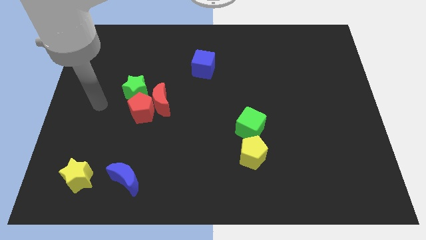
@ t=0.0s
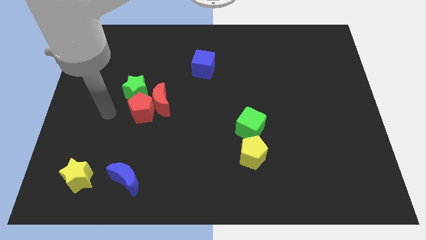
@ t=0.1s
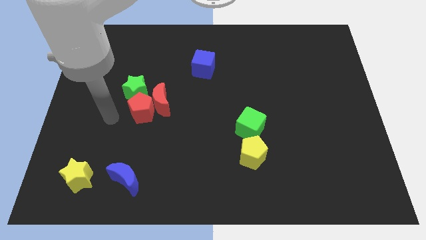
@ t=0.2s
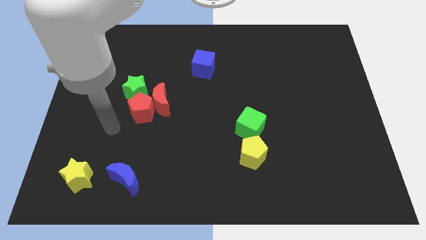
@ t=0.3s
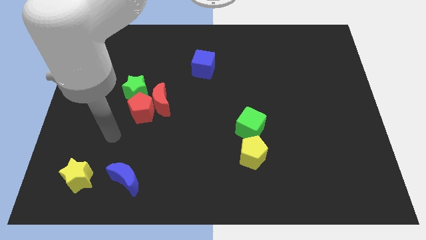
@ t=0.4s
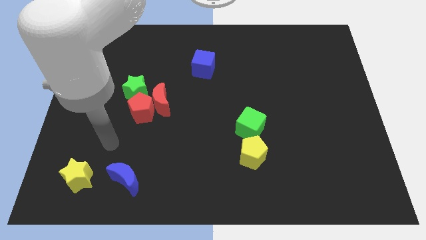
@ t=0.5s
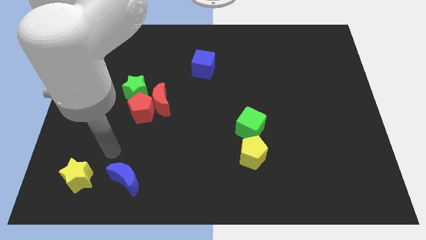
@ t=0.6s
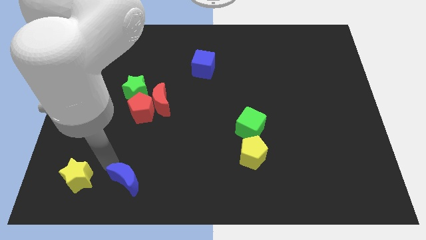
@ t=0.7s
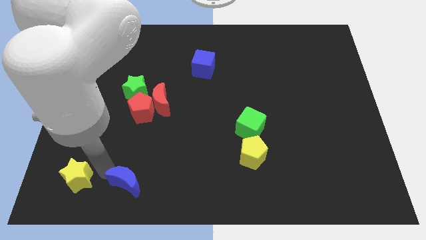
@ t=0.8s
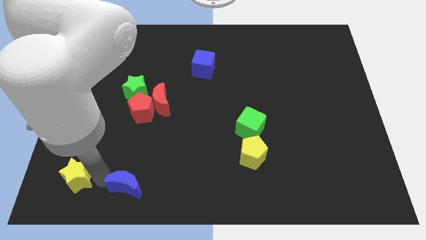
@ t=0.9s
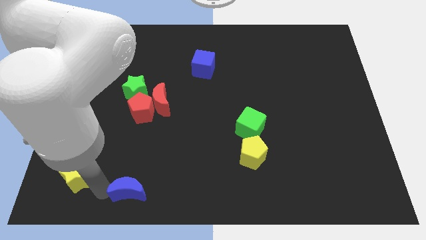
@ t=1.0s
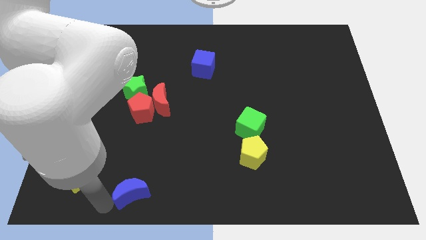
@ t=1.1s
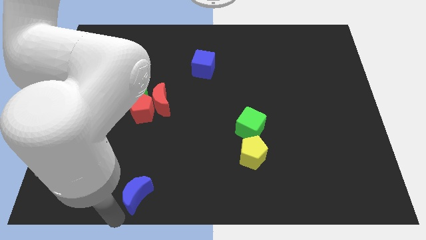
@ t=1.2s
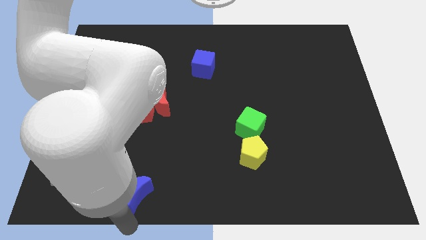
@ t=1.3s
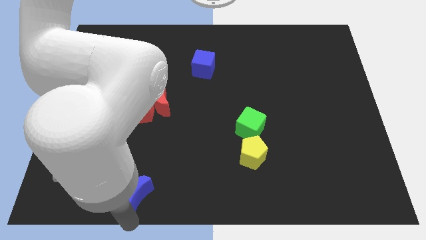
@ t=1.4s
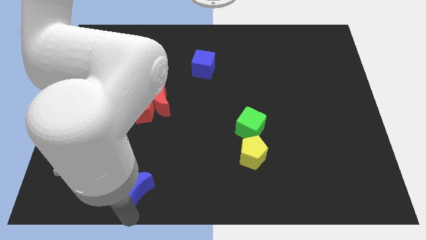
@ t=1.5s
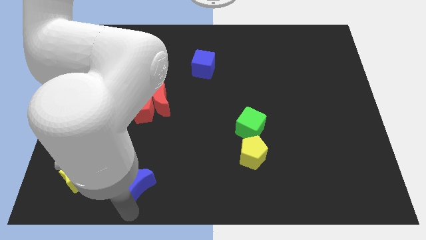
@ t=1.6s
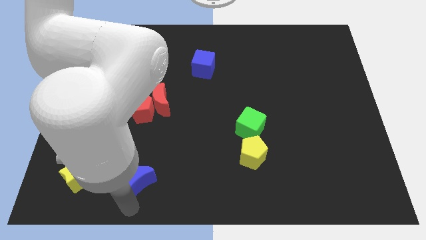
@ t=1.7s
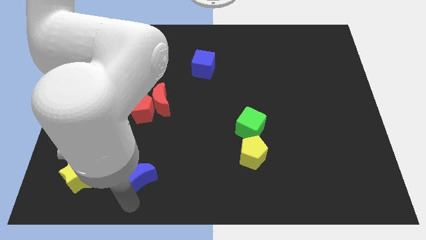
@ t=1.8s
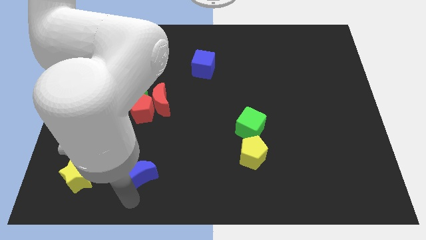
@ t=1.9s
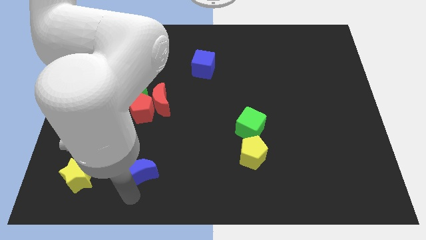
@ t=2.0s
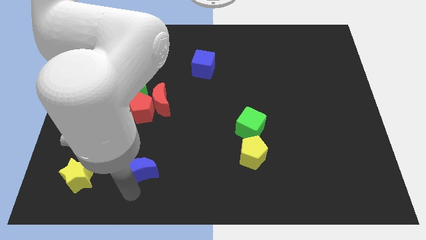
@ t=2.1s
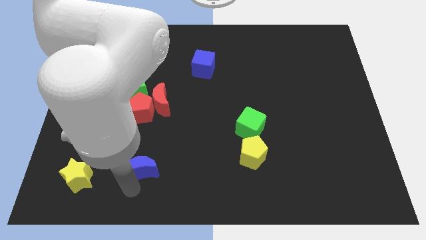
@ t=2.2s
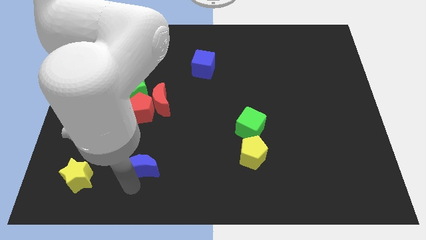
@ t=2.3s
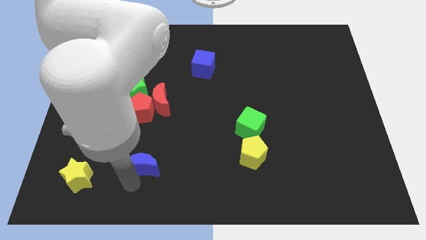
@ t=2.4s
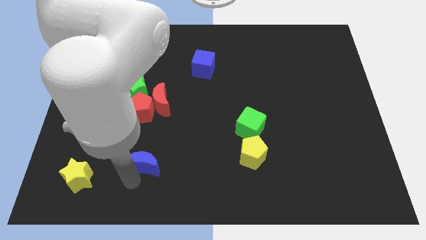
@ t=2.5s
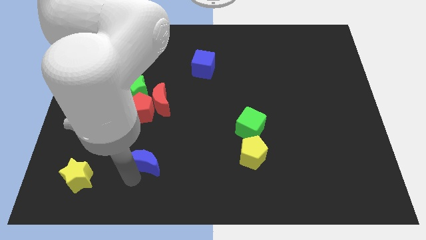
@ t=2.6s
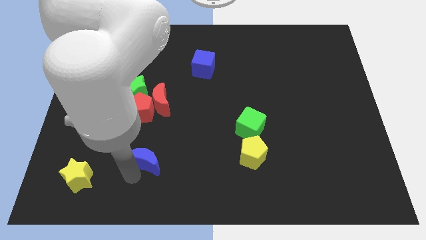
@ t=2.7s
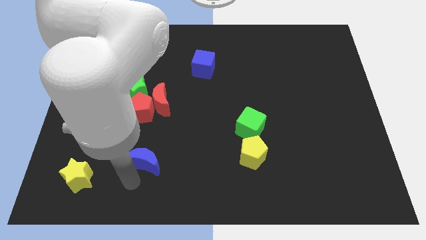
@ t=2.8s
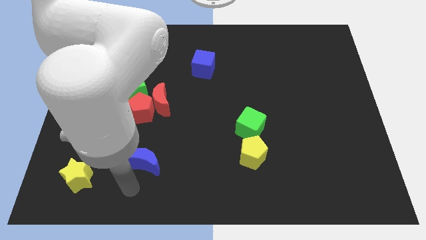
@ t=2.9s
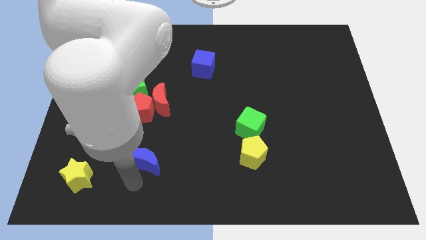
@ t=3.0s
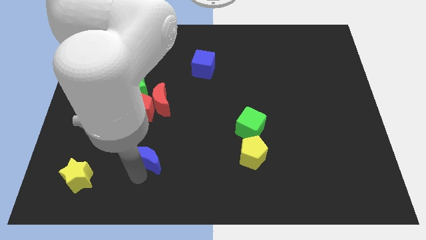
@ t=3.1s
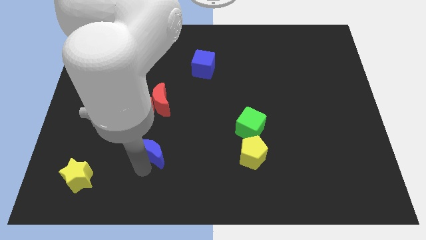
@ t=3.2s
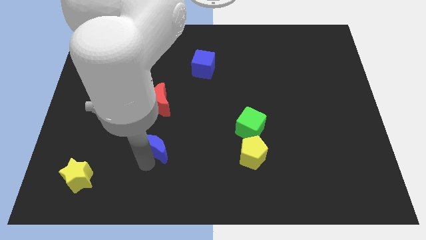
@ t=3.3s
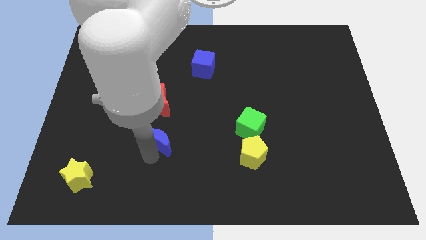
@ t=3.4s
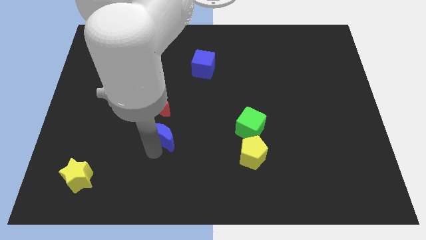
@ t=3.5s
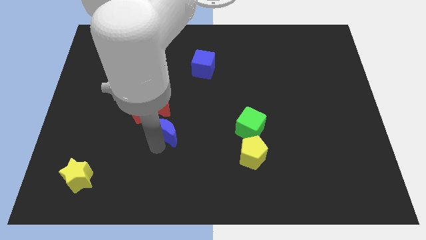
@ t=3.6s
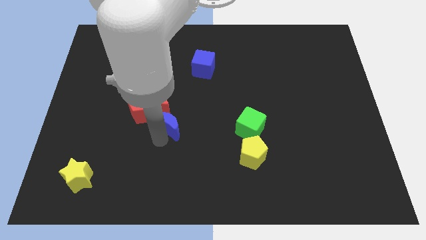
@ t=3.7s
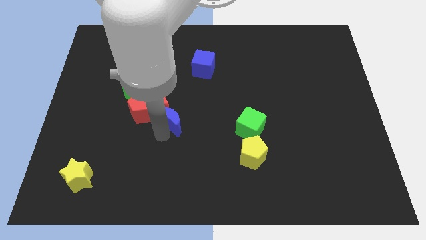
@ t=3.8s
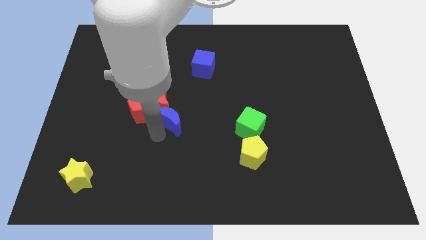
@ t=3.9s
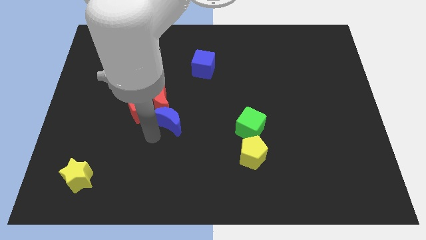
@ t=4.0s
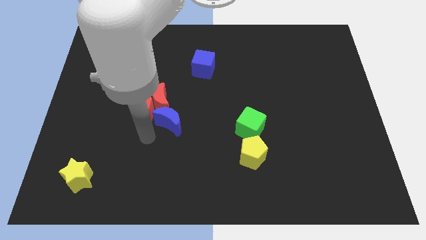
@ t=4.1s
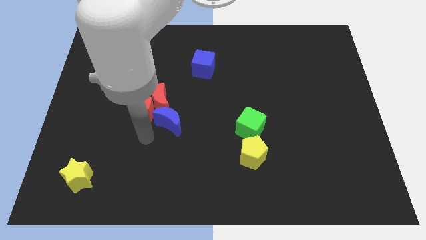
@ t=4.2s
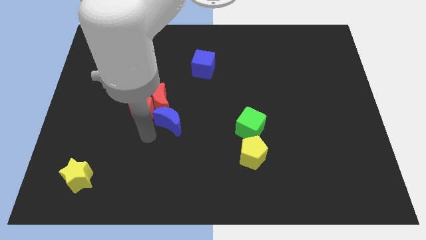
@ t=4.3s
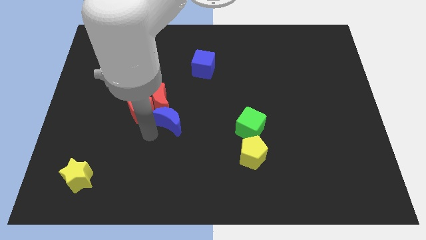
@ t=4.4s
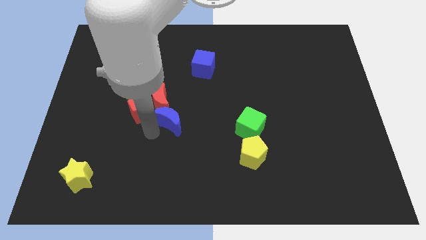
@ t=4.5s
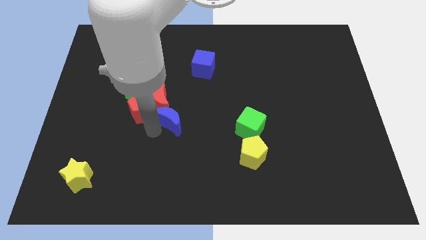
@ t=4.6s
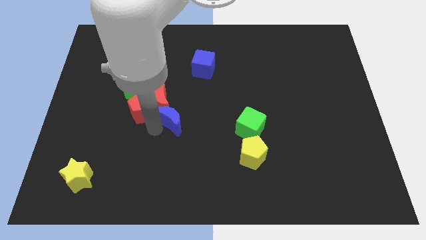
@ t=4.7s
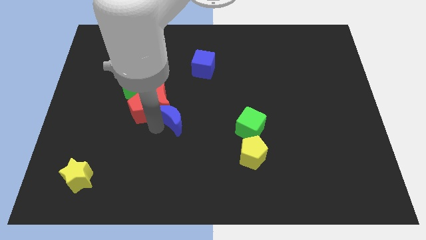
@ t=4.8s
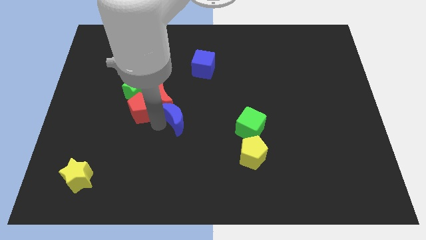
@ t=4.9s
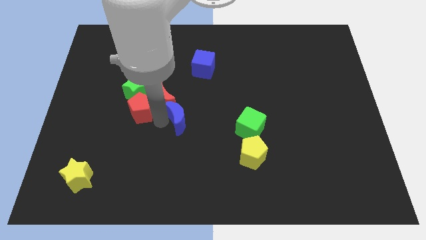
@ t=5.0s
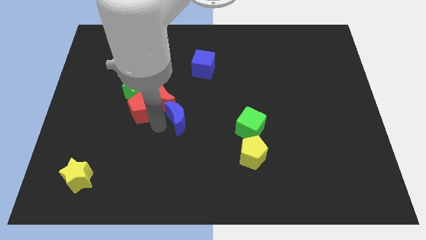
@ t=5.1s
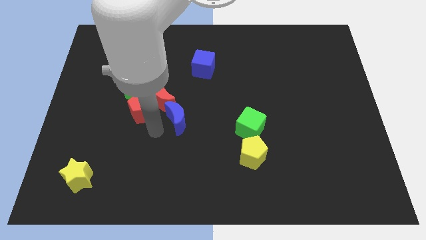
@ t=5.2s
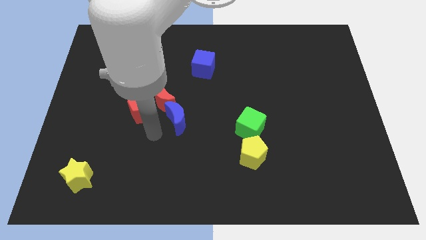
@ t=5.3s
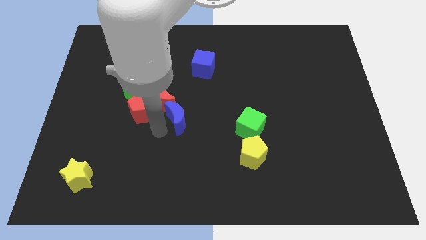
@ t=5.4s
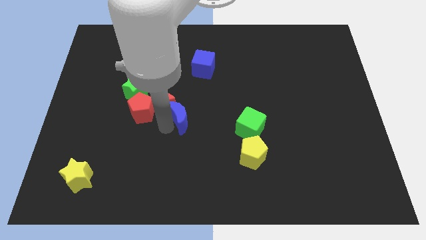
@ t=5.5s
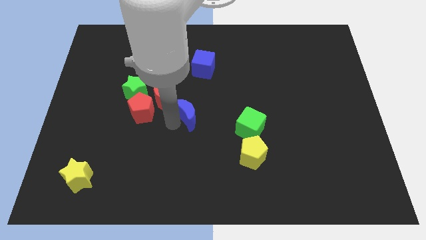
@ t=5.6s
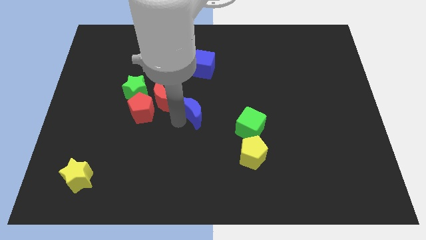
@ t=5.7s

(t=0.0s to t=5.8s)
move the blue moon upwards and to the right

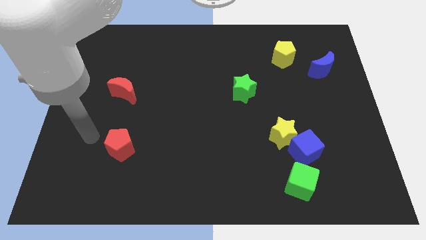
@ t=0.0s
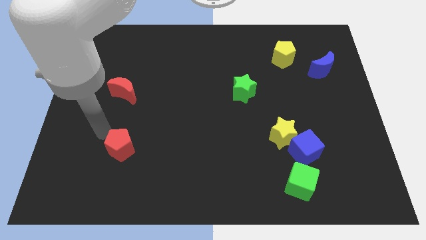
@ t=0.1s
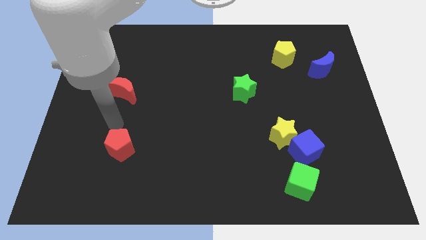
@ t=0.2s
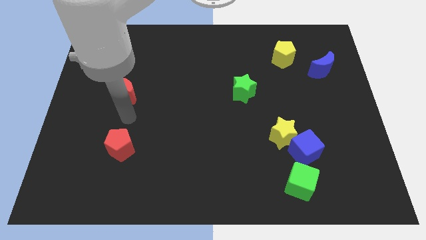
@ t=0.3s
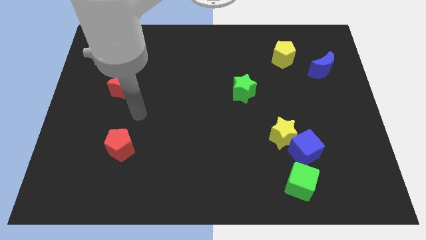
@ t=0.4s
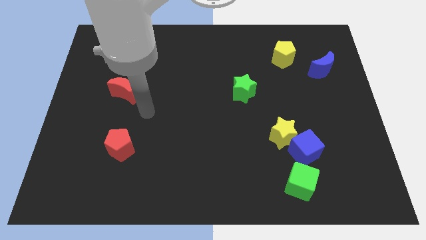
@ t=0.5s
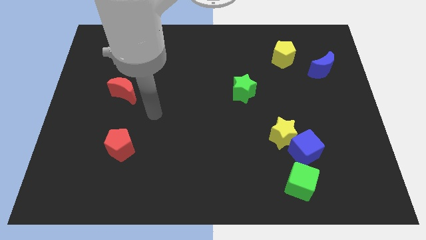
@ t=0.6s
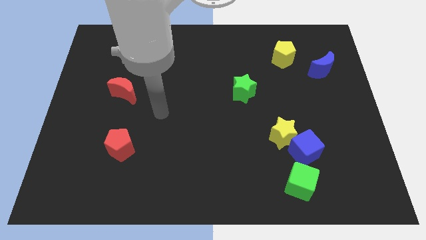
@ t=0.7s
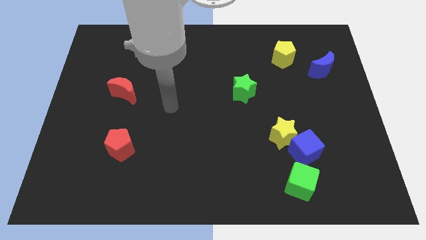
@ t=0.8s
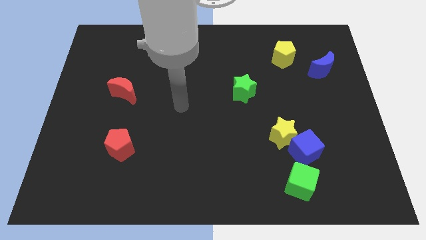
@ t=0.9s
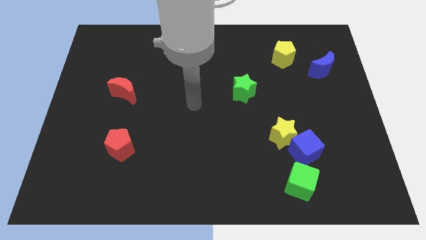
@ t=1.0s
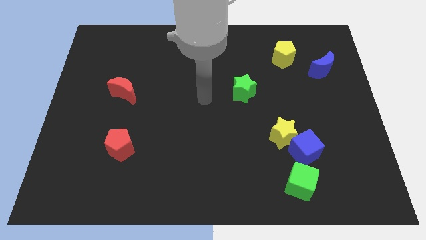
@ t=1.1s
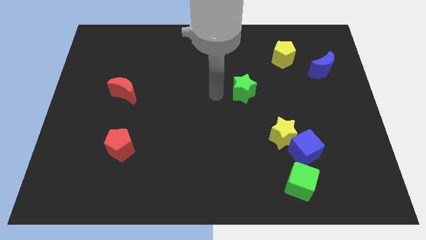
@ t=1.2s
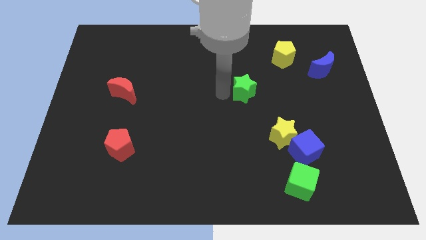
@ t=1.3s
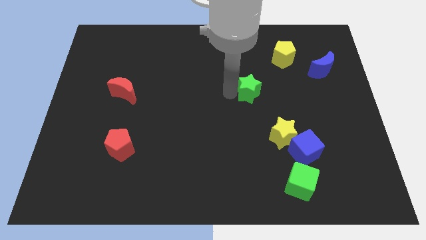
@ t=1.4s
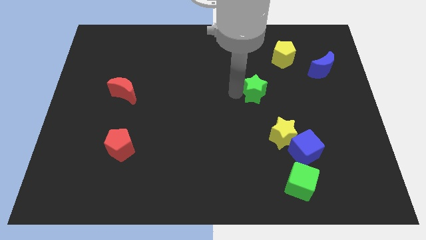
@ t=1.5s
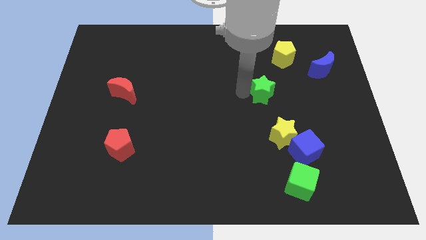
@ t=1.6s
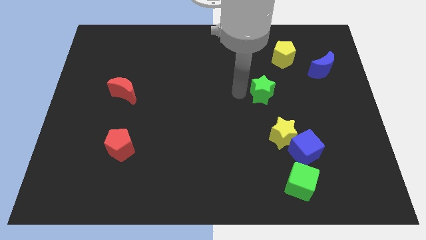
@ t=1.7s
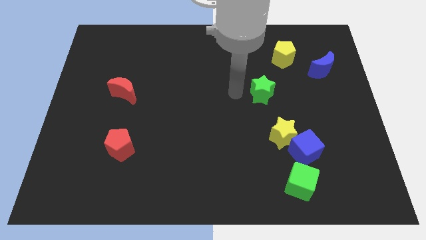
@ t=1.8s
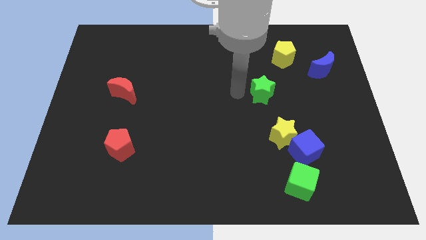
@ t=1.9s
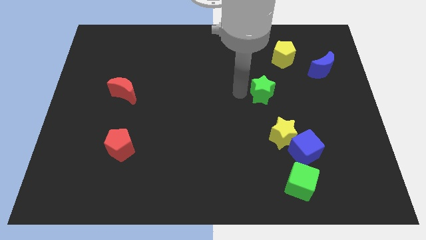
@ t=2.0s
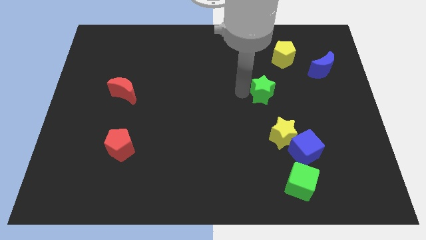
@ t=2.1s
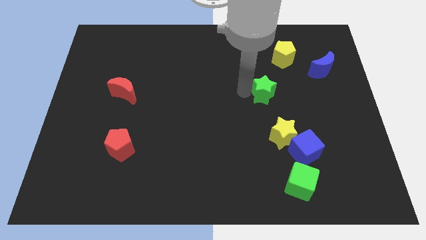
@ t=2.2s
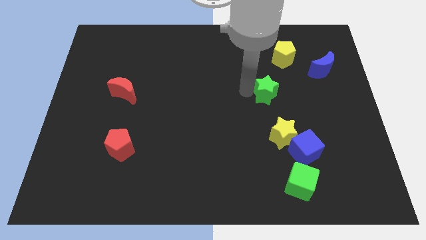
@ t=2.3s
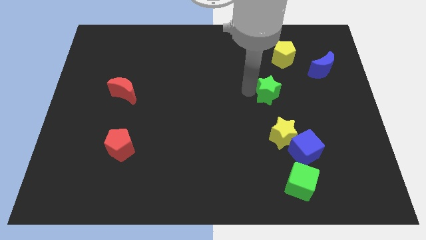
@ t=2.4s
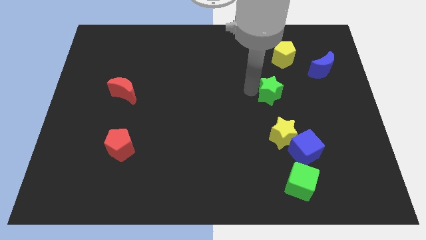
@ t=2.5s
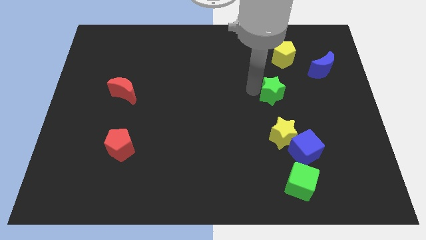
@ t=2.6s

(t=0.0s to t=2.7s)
push the green star right slightly
